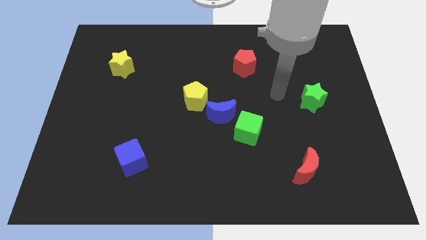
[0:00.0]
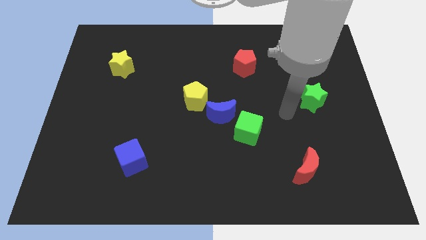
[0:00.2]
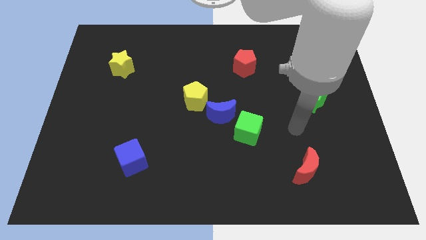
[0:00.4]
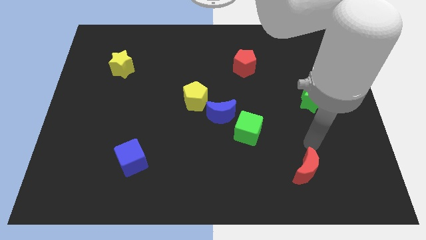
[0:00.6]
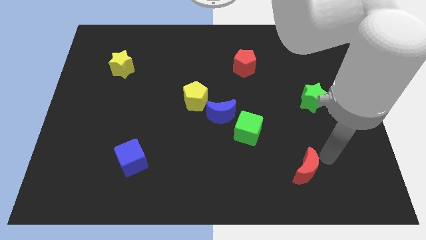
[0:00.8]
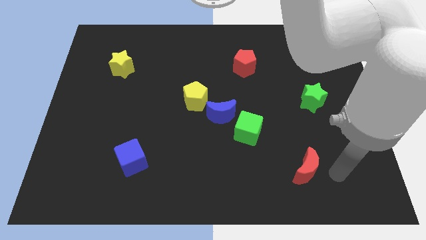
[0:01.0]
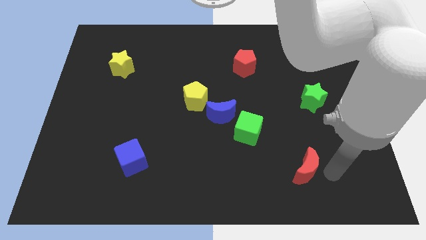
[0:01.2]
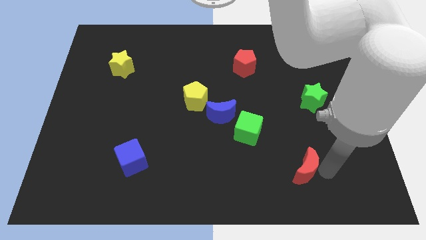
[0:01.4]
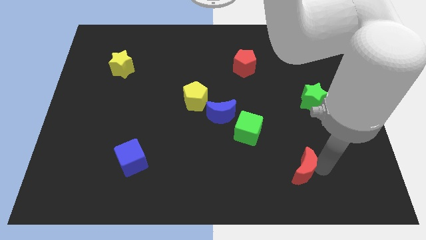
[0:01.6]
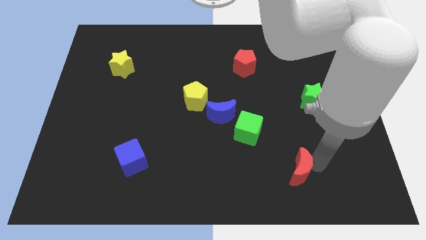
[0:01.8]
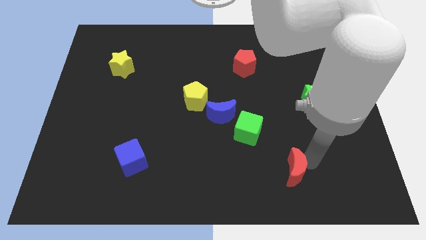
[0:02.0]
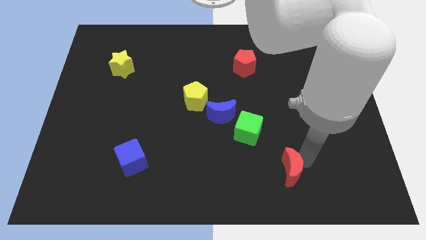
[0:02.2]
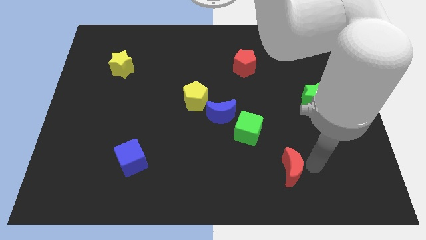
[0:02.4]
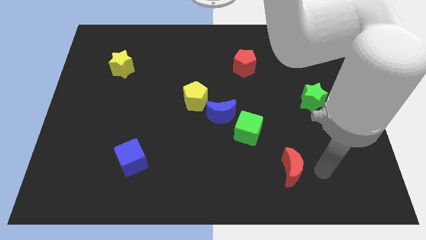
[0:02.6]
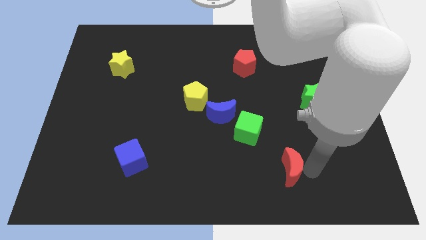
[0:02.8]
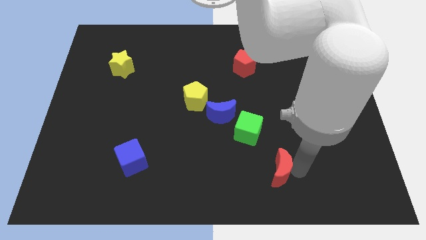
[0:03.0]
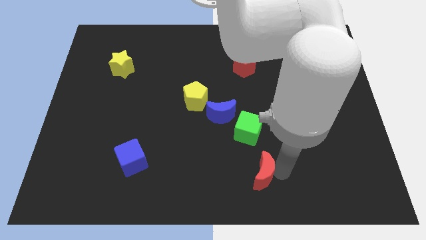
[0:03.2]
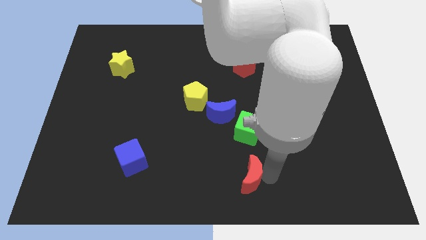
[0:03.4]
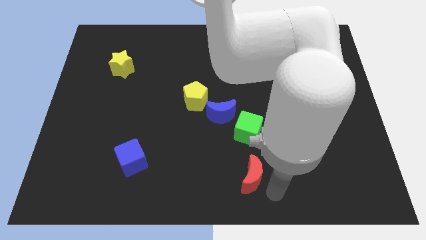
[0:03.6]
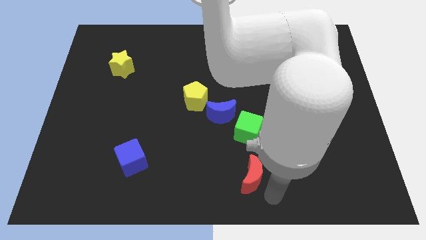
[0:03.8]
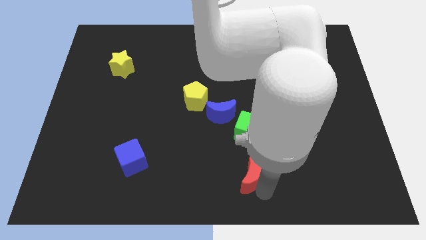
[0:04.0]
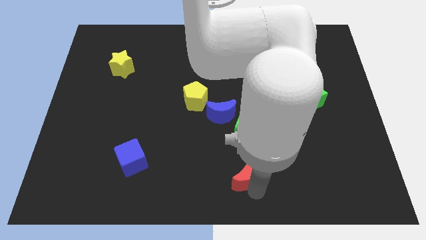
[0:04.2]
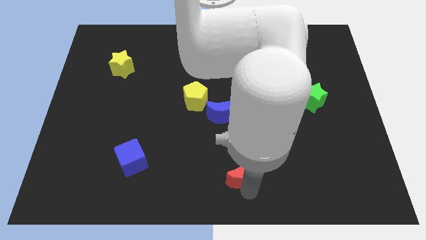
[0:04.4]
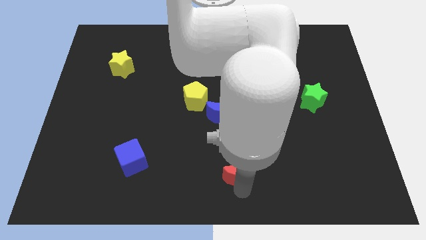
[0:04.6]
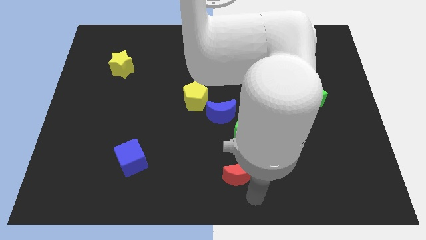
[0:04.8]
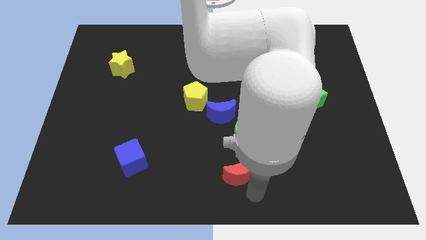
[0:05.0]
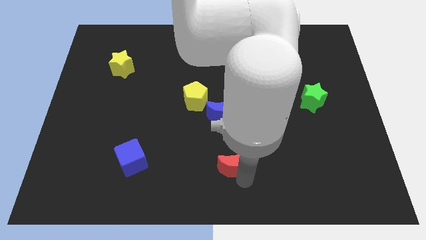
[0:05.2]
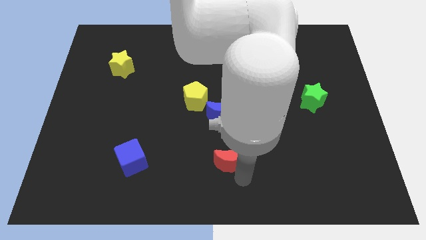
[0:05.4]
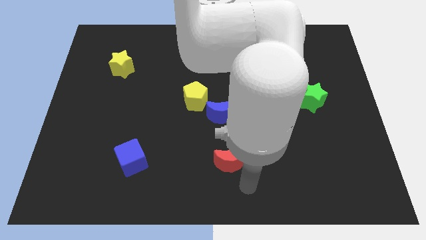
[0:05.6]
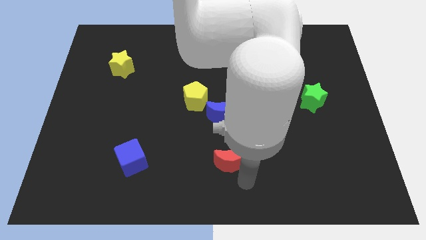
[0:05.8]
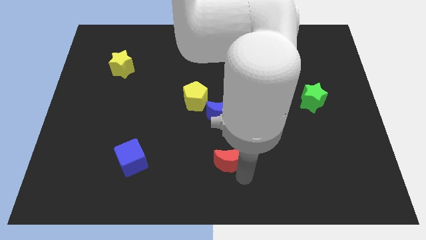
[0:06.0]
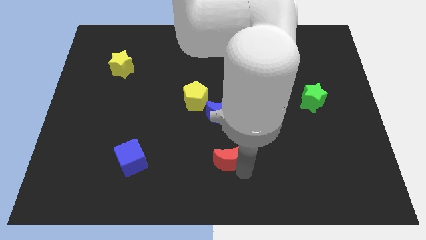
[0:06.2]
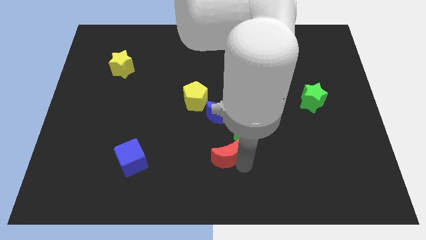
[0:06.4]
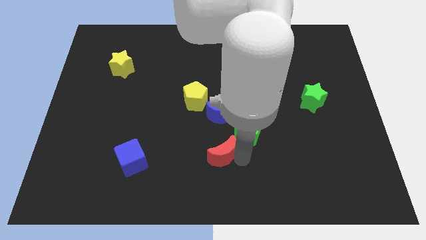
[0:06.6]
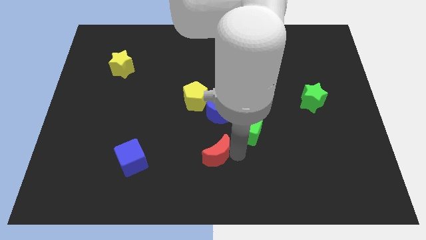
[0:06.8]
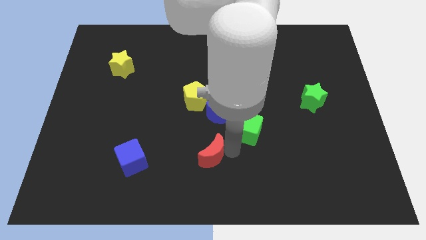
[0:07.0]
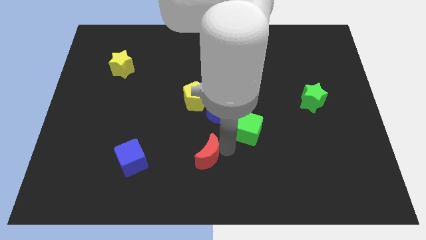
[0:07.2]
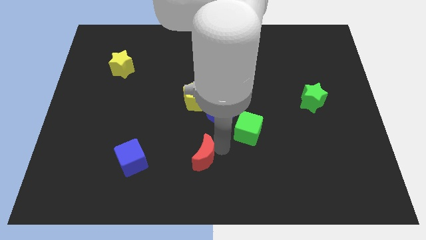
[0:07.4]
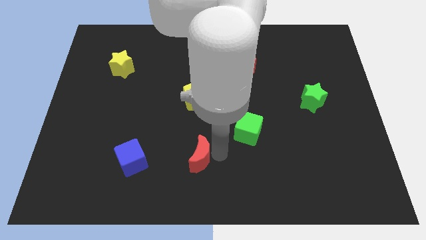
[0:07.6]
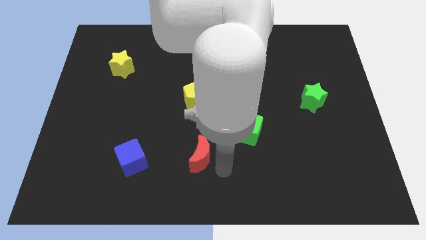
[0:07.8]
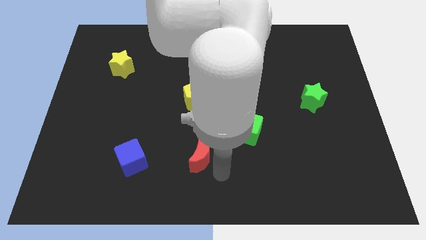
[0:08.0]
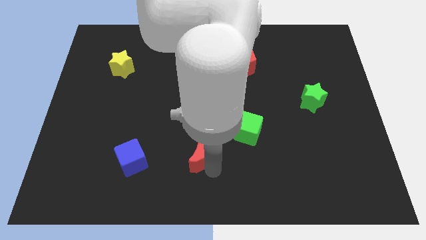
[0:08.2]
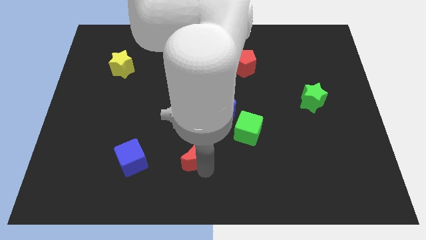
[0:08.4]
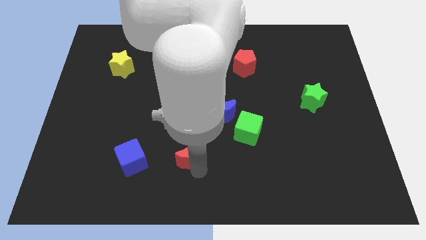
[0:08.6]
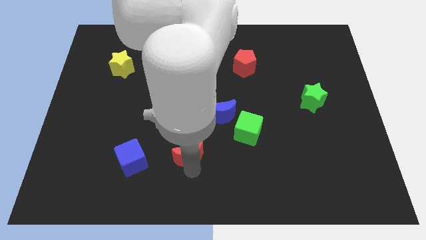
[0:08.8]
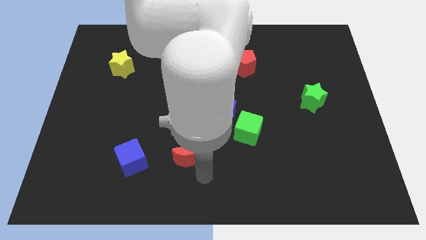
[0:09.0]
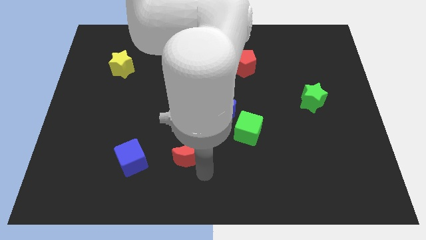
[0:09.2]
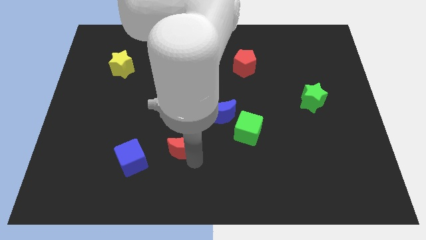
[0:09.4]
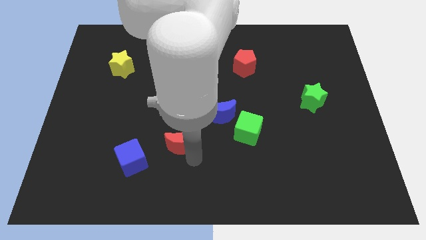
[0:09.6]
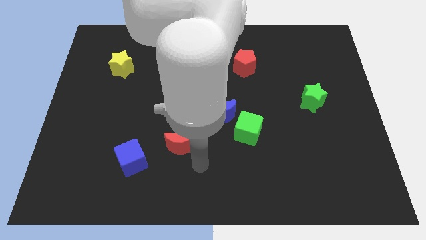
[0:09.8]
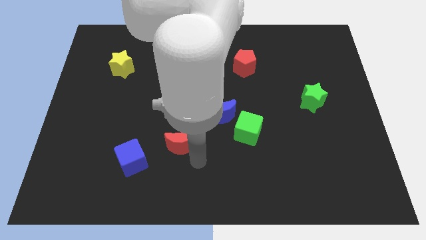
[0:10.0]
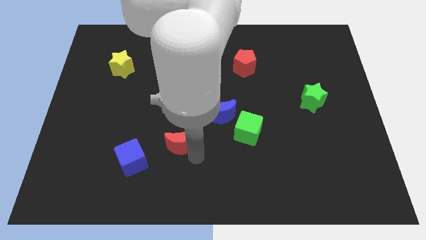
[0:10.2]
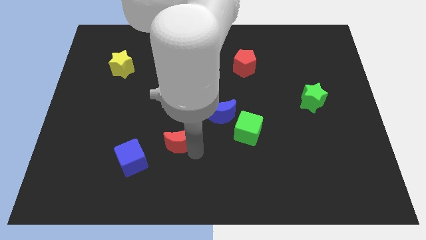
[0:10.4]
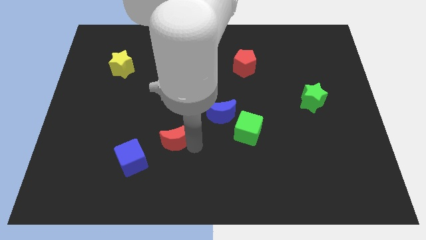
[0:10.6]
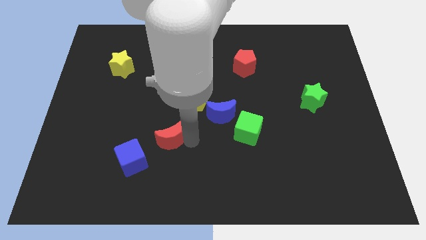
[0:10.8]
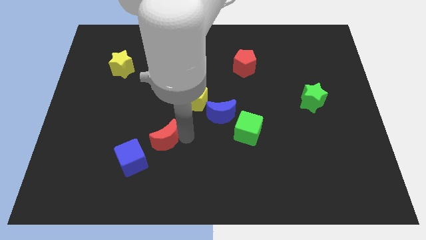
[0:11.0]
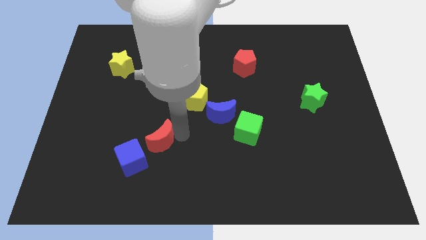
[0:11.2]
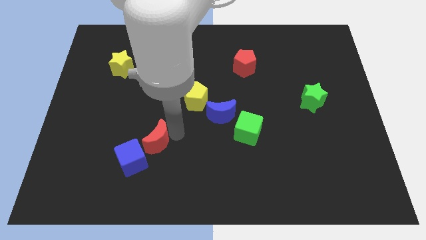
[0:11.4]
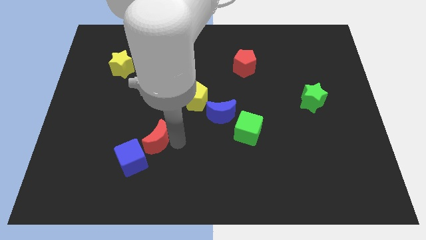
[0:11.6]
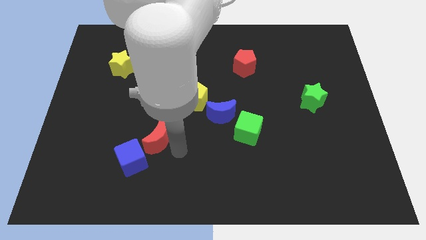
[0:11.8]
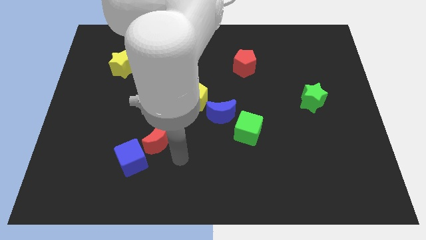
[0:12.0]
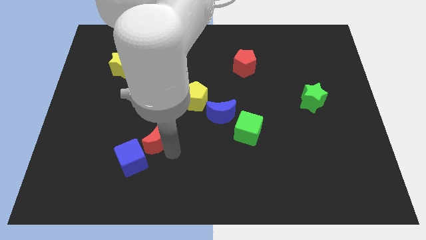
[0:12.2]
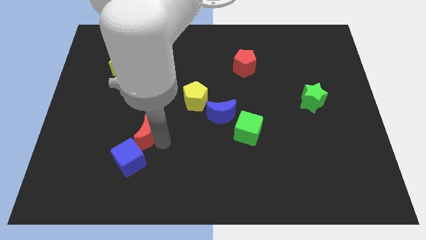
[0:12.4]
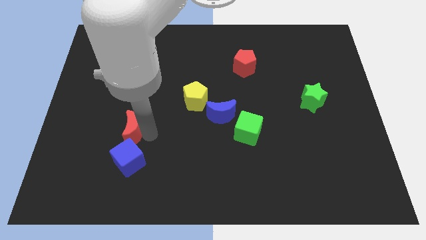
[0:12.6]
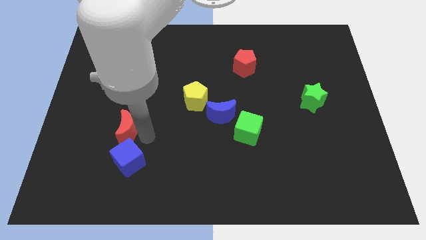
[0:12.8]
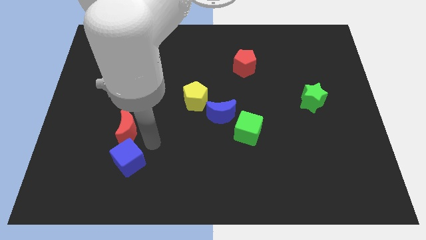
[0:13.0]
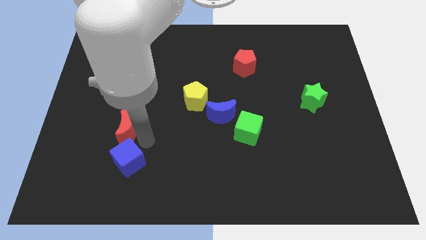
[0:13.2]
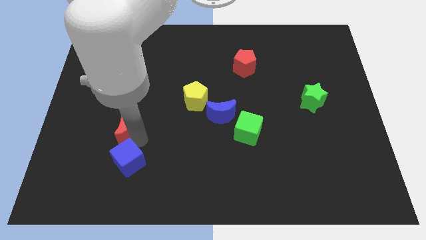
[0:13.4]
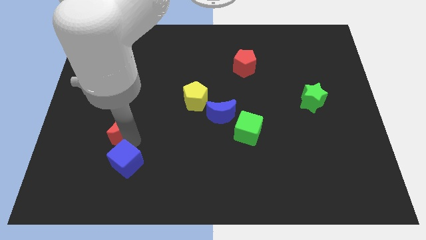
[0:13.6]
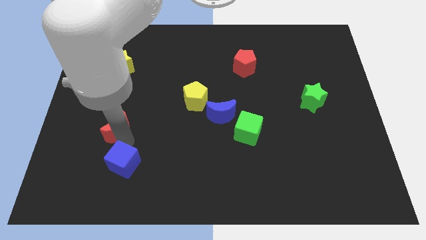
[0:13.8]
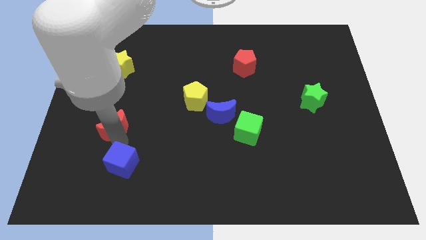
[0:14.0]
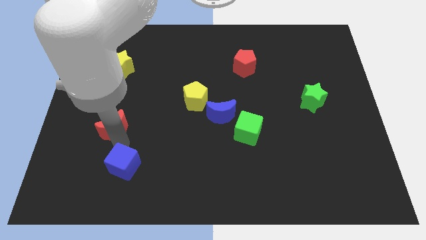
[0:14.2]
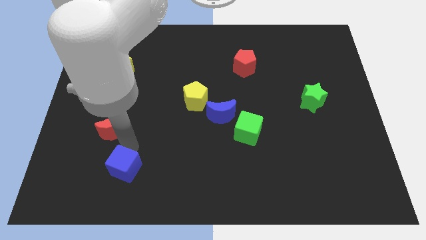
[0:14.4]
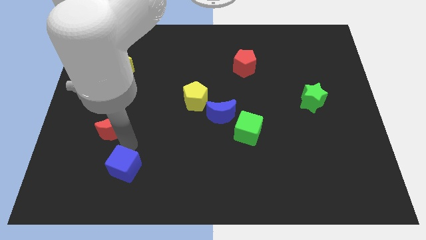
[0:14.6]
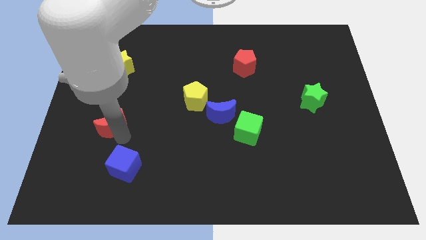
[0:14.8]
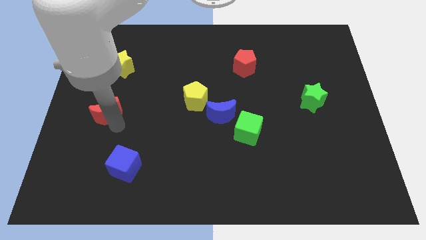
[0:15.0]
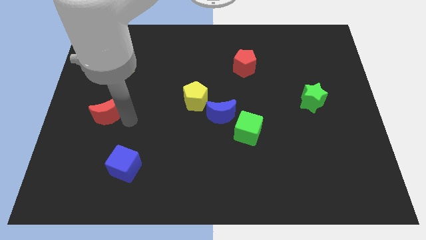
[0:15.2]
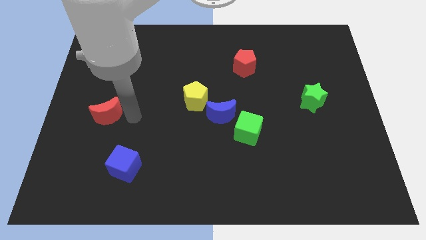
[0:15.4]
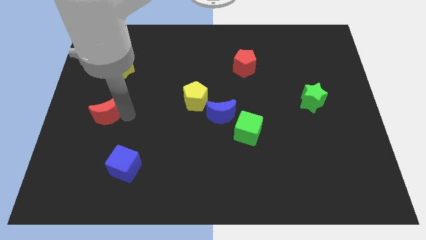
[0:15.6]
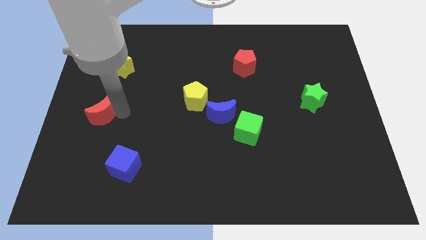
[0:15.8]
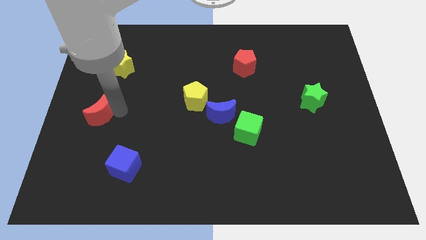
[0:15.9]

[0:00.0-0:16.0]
slide the red moon to the left side of the board
